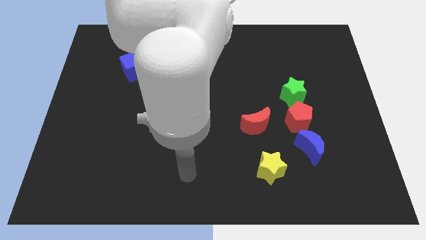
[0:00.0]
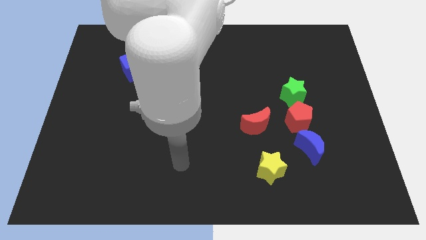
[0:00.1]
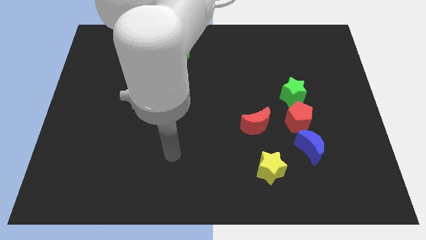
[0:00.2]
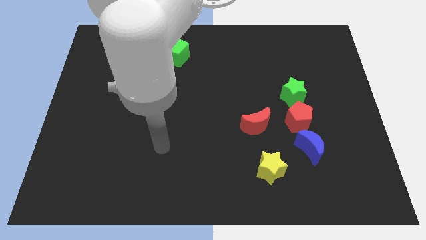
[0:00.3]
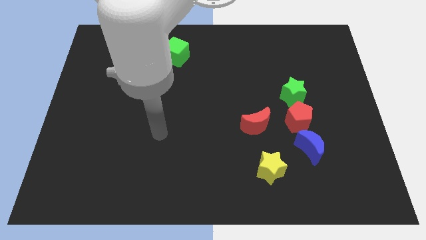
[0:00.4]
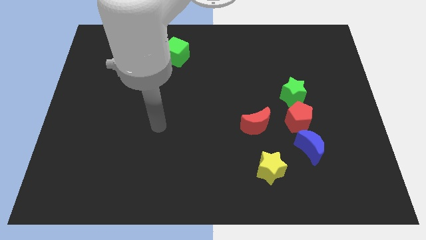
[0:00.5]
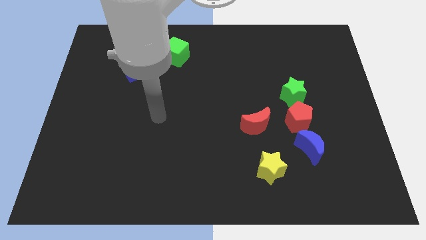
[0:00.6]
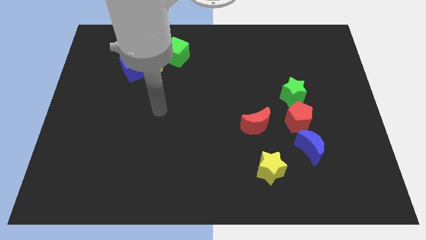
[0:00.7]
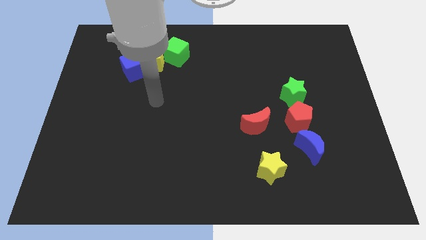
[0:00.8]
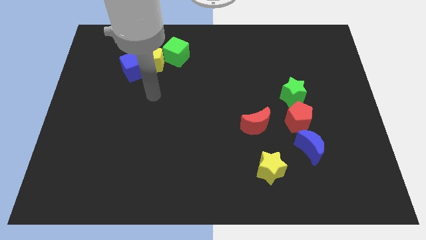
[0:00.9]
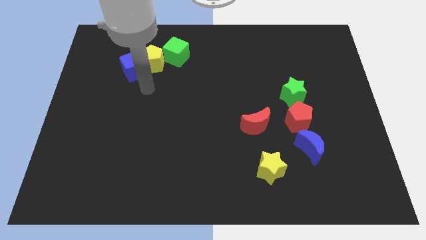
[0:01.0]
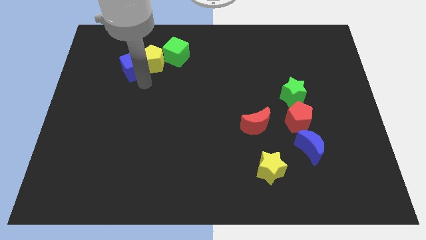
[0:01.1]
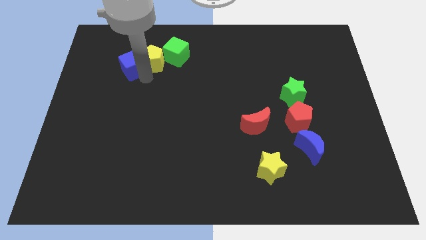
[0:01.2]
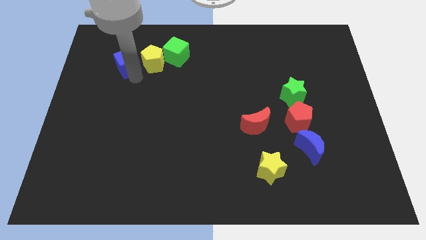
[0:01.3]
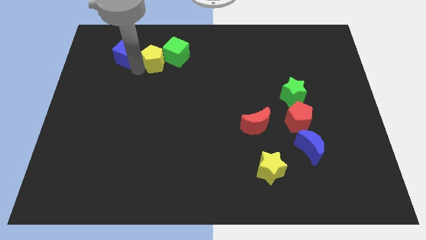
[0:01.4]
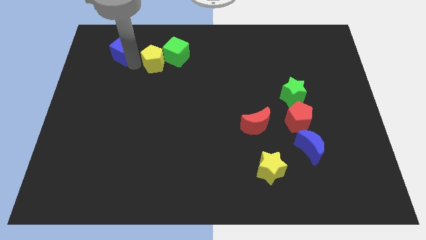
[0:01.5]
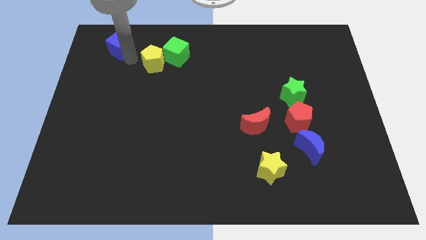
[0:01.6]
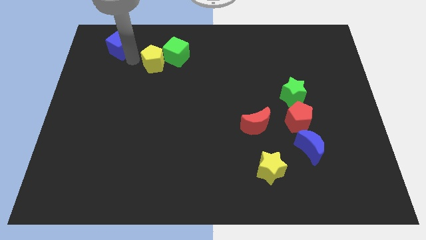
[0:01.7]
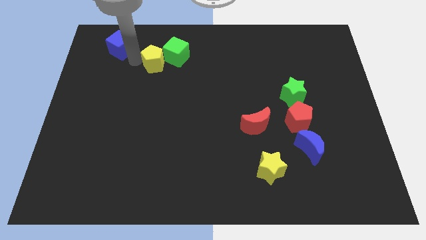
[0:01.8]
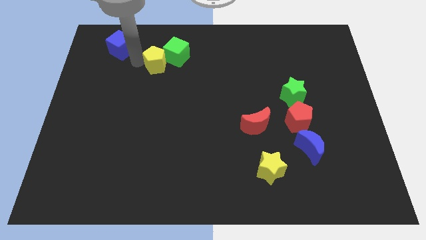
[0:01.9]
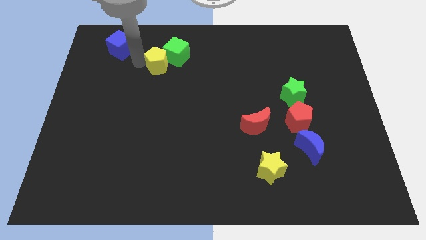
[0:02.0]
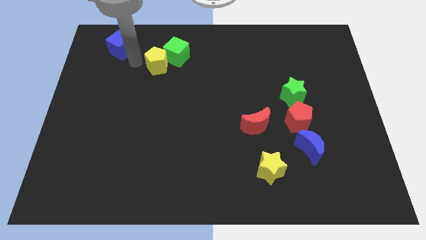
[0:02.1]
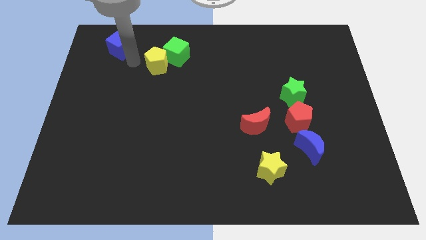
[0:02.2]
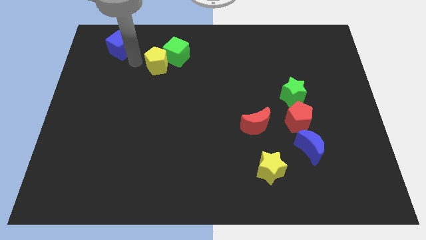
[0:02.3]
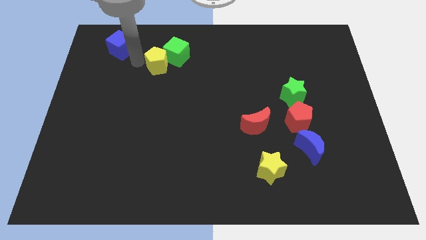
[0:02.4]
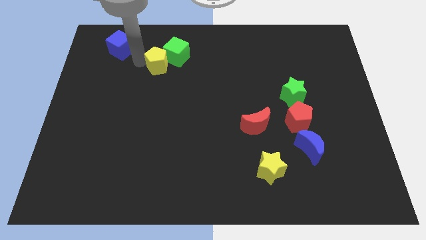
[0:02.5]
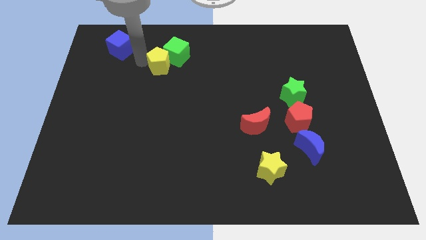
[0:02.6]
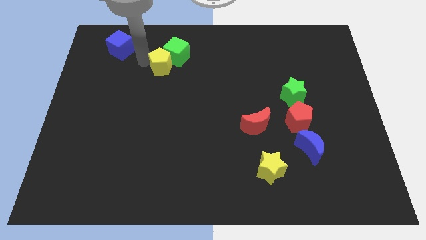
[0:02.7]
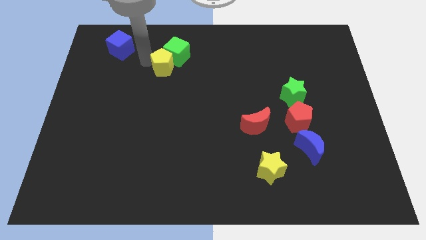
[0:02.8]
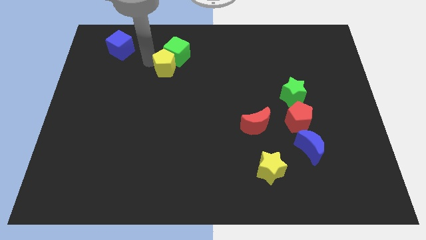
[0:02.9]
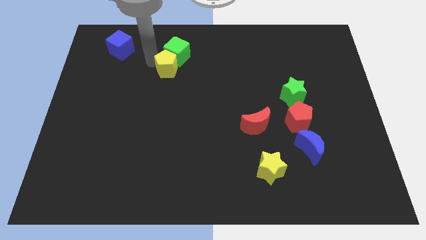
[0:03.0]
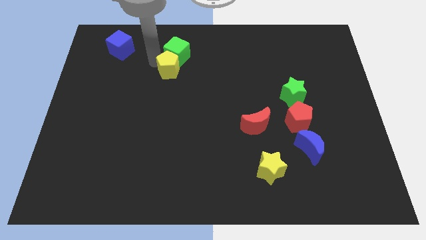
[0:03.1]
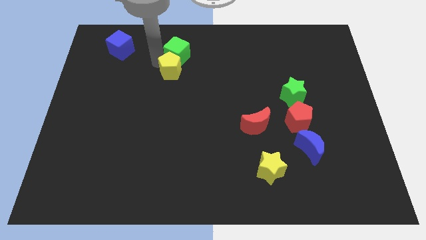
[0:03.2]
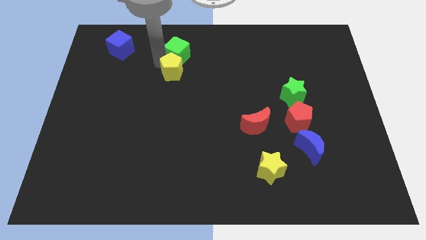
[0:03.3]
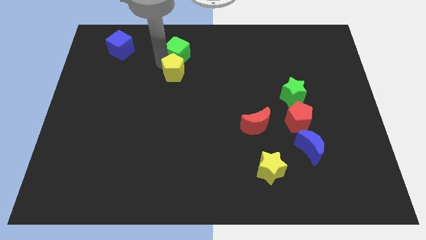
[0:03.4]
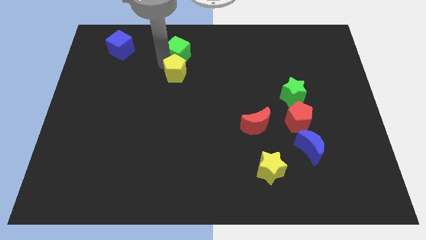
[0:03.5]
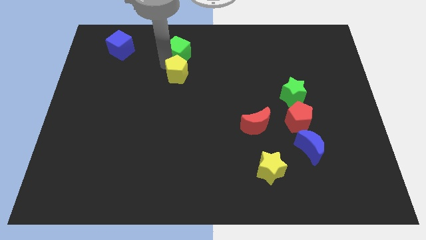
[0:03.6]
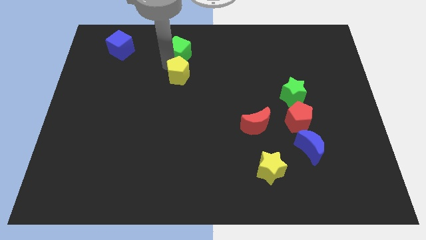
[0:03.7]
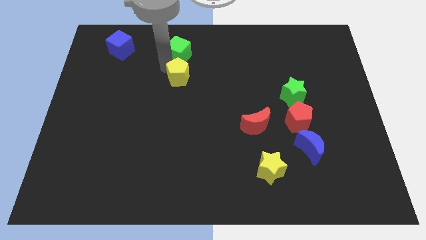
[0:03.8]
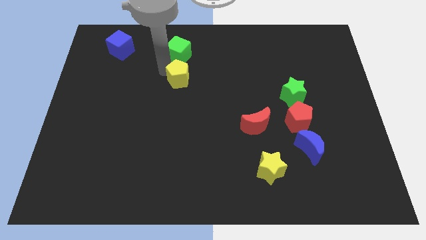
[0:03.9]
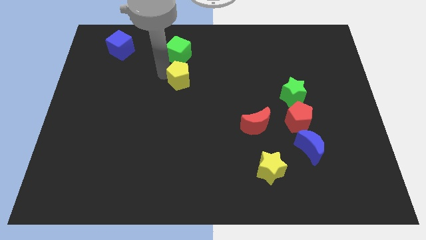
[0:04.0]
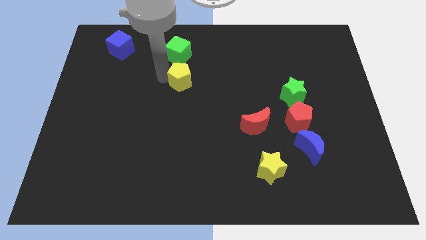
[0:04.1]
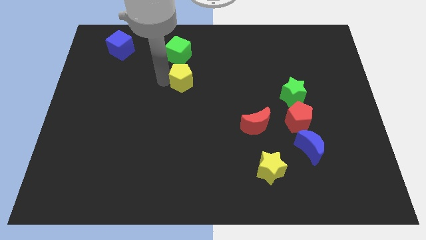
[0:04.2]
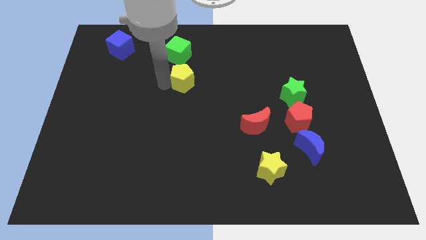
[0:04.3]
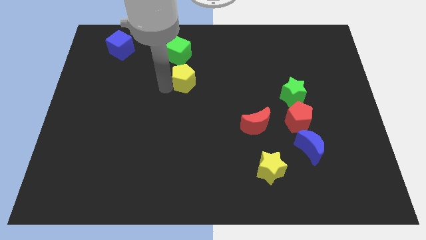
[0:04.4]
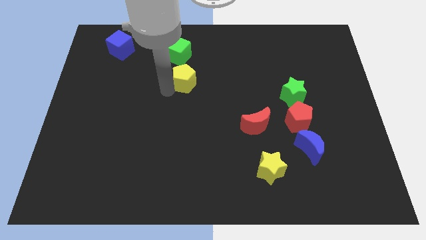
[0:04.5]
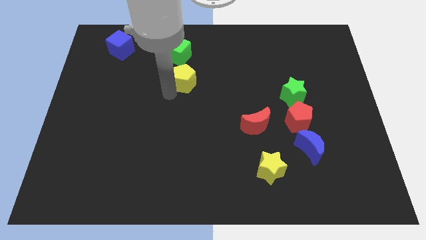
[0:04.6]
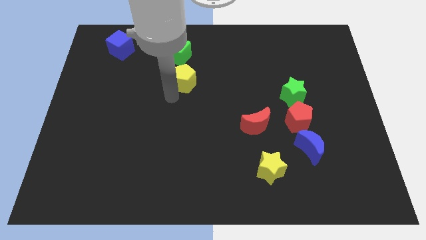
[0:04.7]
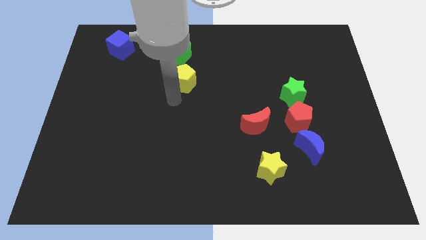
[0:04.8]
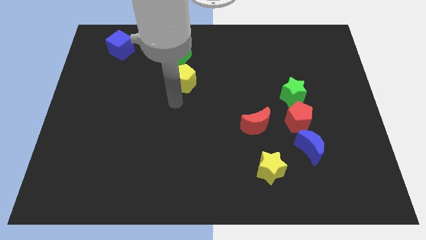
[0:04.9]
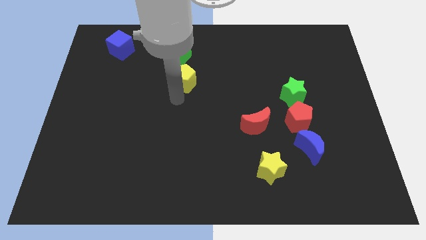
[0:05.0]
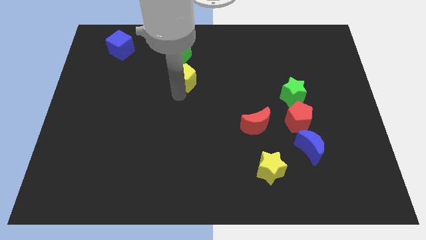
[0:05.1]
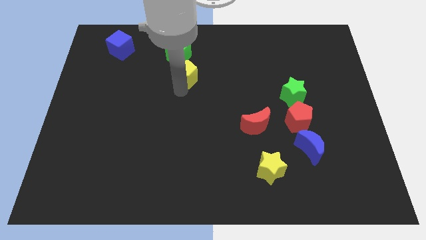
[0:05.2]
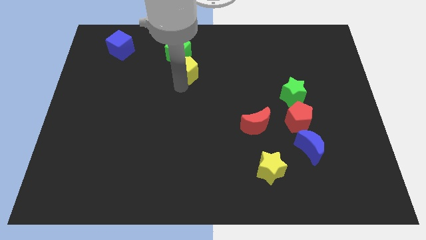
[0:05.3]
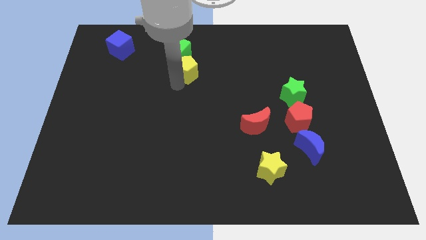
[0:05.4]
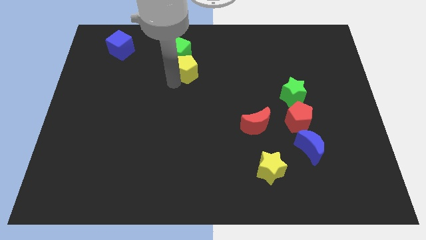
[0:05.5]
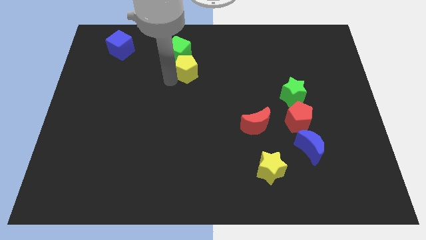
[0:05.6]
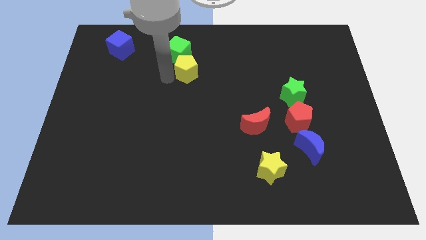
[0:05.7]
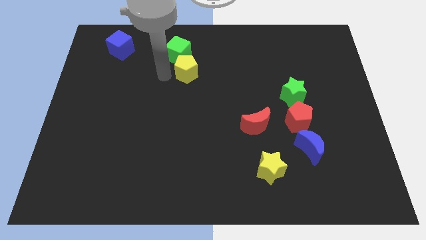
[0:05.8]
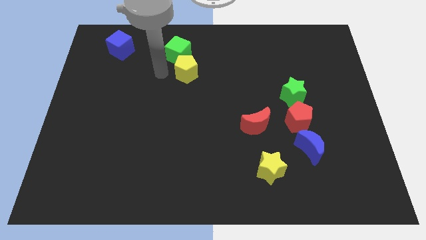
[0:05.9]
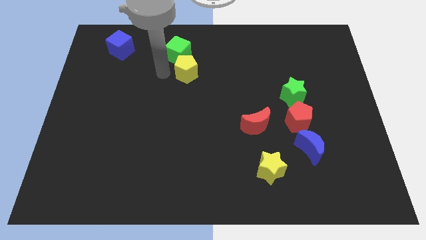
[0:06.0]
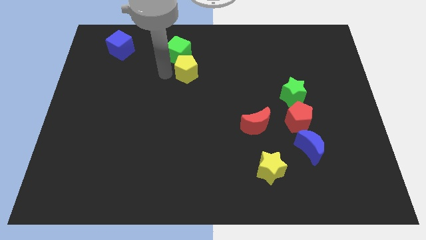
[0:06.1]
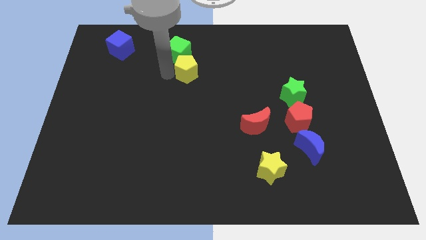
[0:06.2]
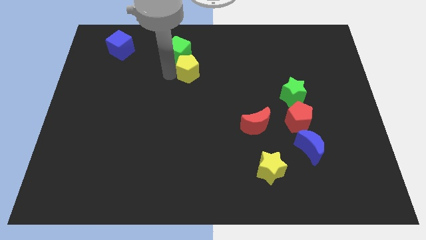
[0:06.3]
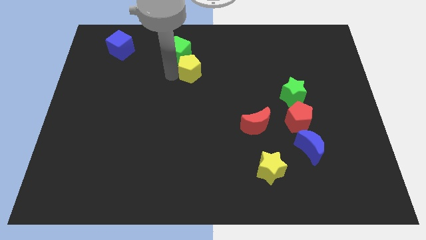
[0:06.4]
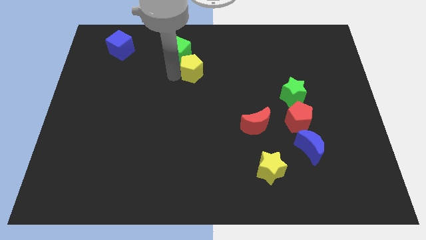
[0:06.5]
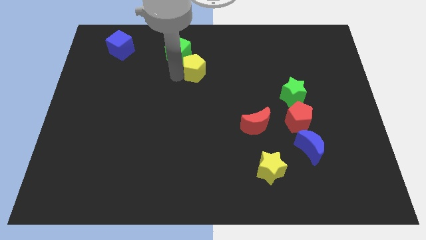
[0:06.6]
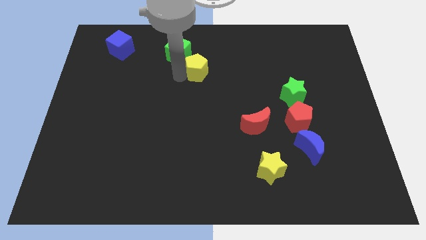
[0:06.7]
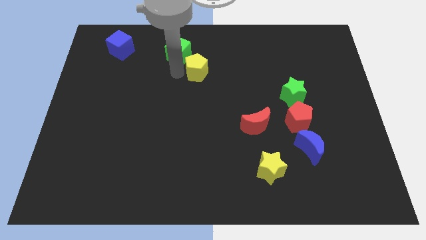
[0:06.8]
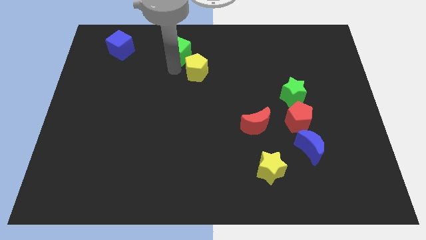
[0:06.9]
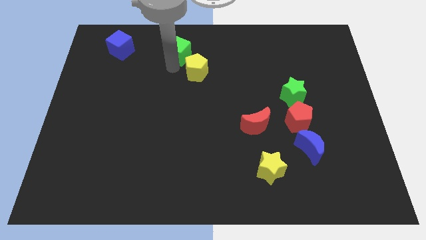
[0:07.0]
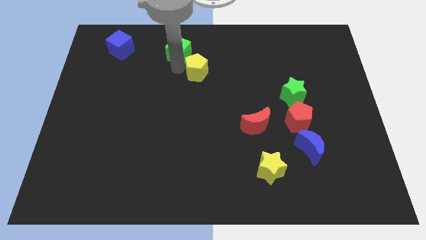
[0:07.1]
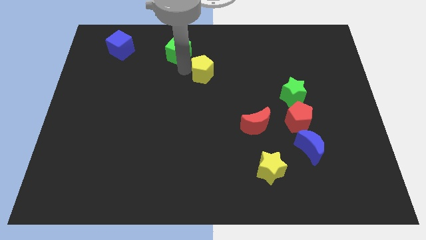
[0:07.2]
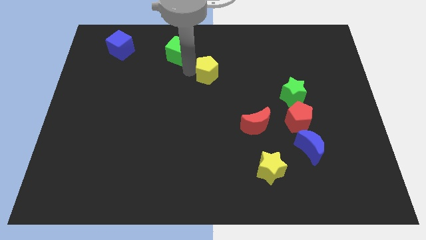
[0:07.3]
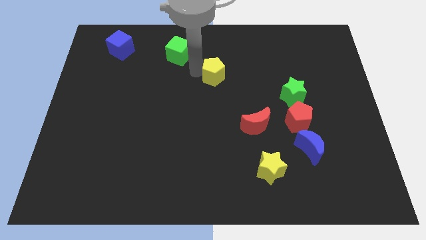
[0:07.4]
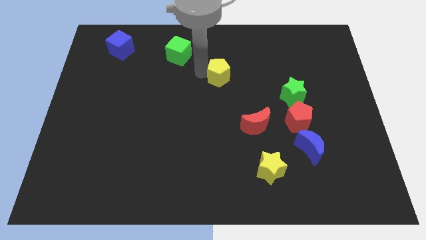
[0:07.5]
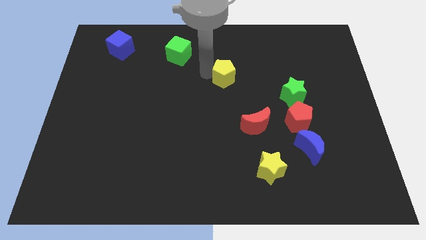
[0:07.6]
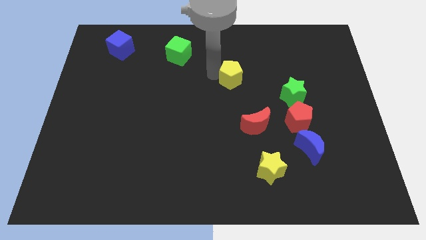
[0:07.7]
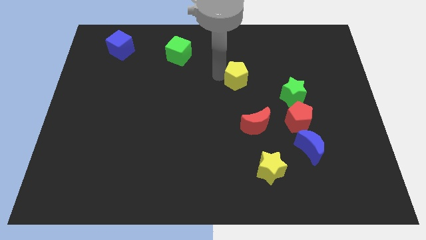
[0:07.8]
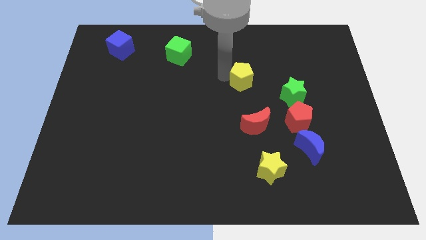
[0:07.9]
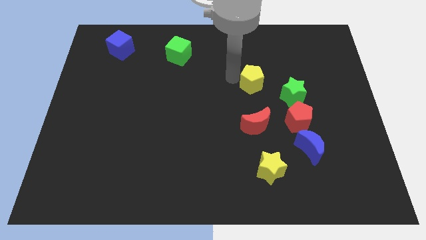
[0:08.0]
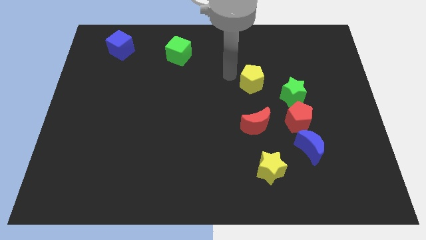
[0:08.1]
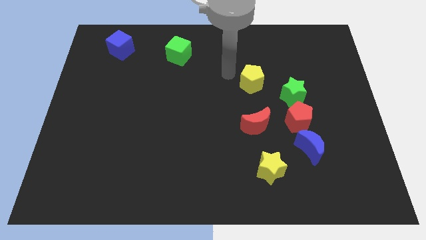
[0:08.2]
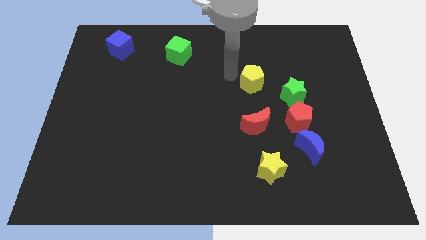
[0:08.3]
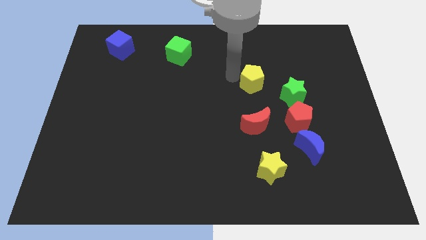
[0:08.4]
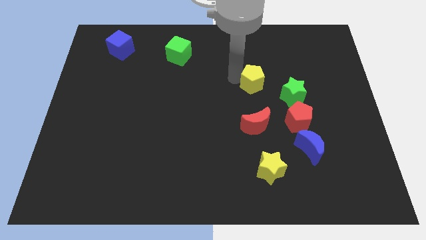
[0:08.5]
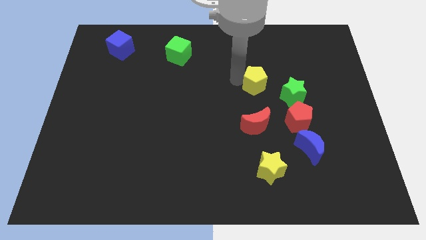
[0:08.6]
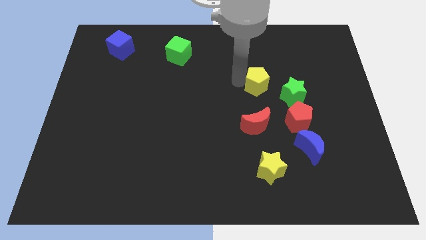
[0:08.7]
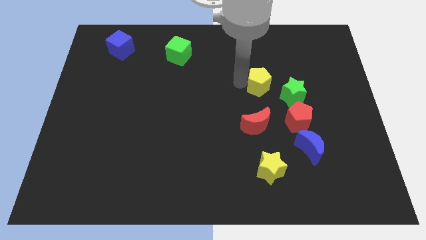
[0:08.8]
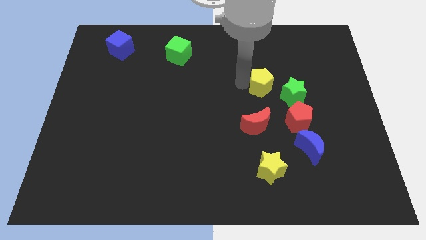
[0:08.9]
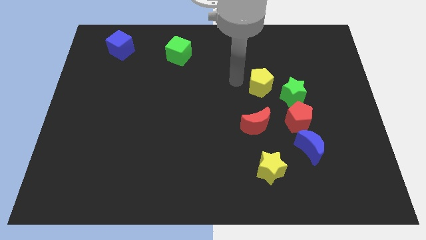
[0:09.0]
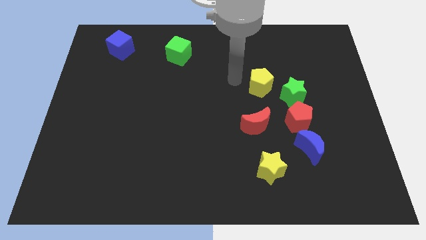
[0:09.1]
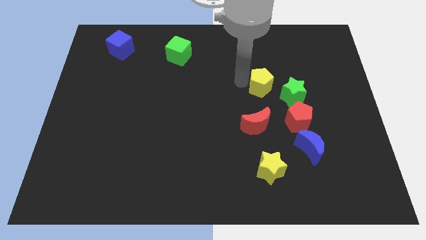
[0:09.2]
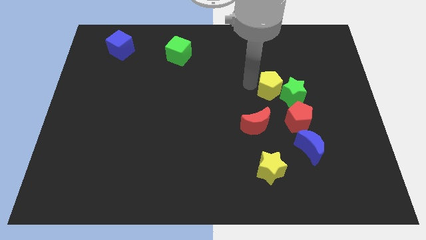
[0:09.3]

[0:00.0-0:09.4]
push the yellow pentagon close to the green star
